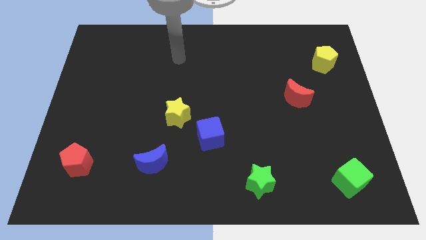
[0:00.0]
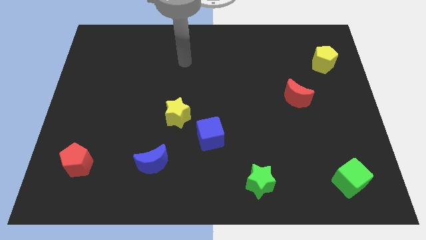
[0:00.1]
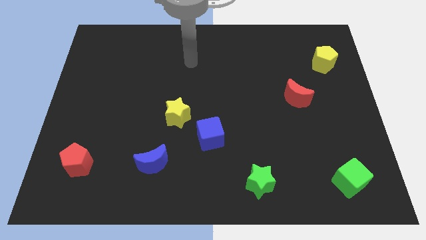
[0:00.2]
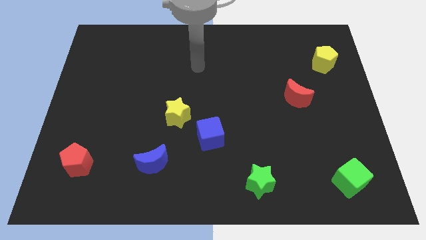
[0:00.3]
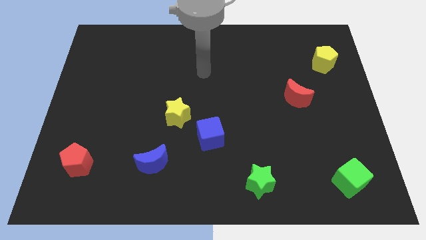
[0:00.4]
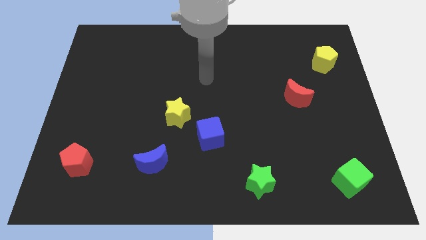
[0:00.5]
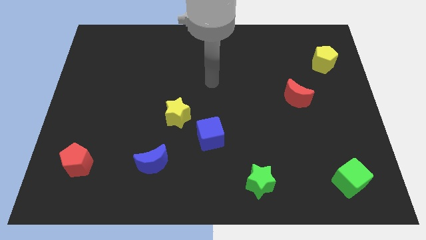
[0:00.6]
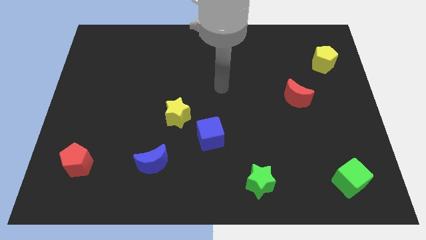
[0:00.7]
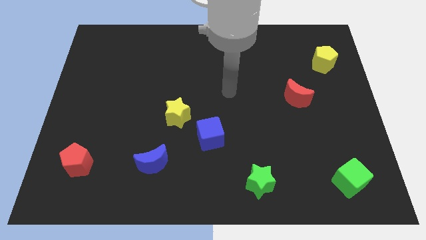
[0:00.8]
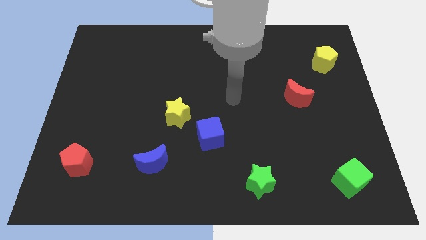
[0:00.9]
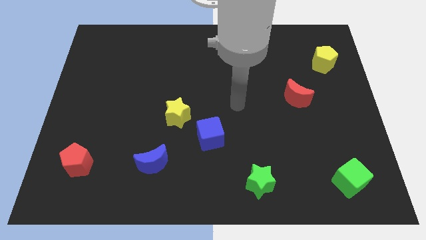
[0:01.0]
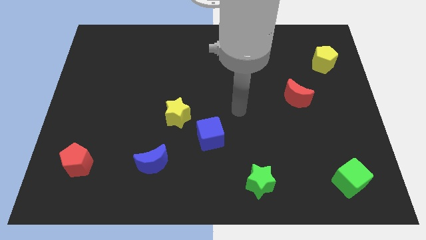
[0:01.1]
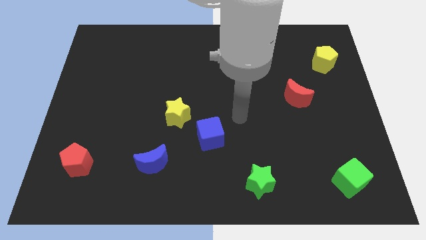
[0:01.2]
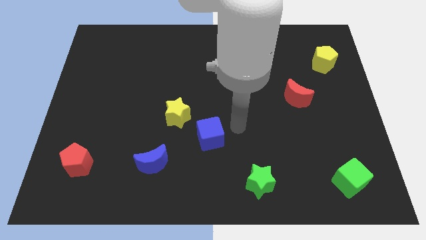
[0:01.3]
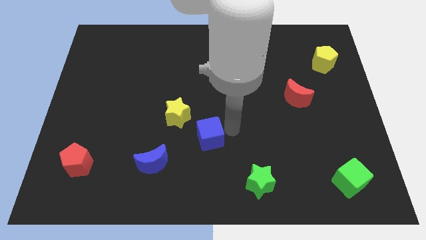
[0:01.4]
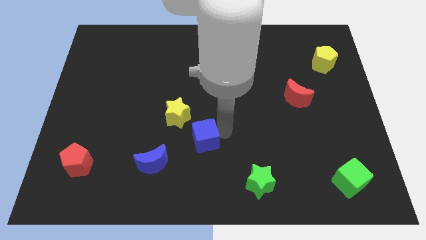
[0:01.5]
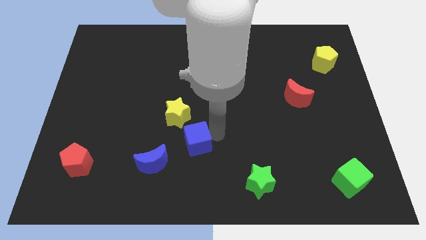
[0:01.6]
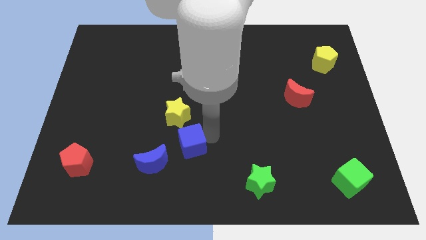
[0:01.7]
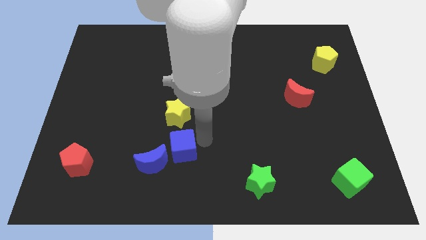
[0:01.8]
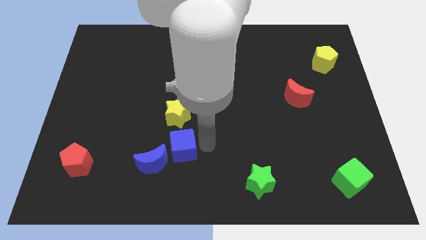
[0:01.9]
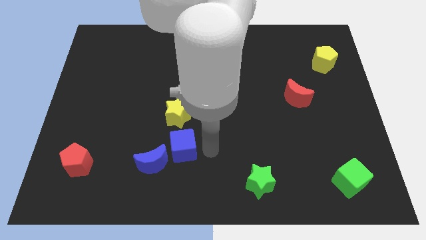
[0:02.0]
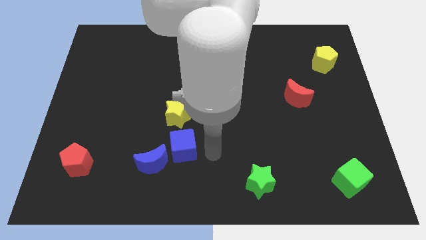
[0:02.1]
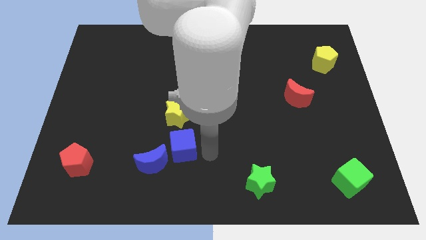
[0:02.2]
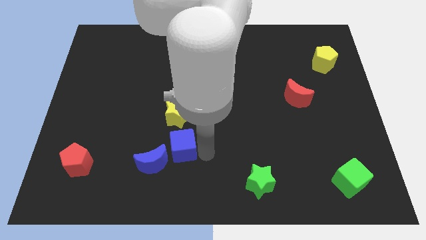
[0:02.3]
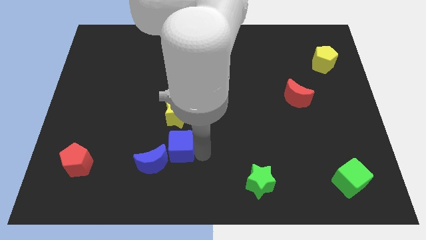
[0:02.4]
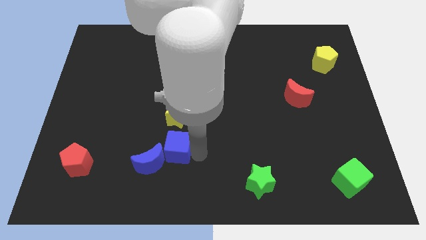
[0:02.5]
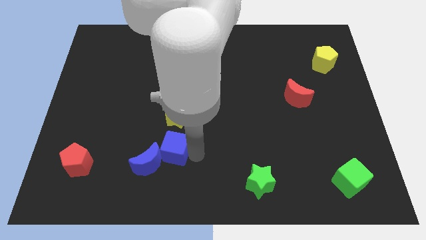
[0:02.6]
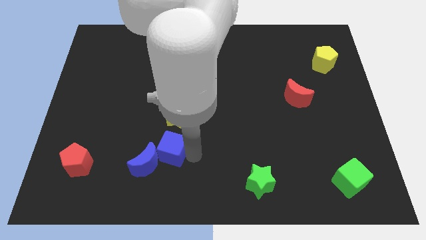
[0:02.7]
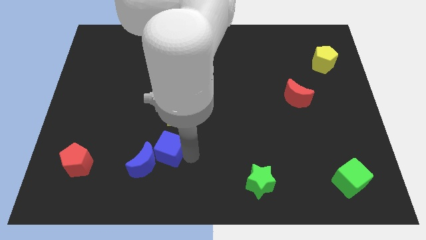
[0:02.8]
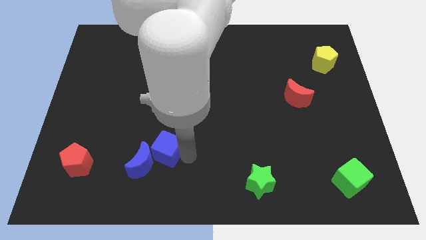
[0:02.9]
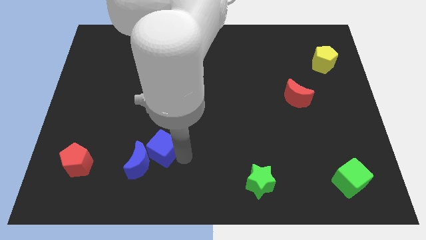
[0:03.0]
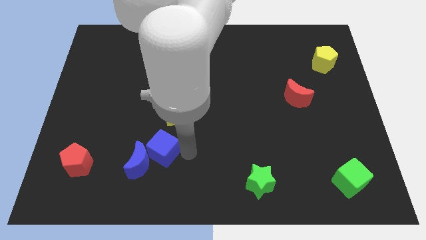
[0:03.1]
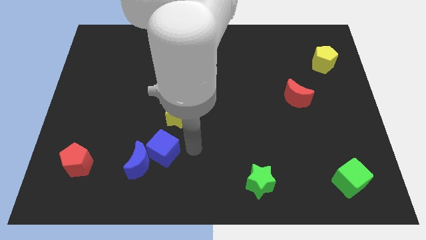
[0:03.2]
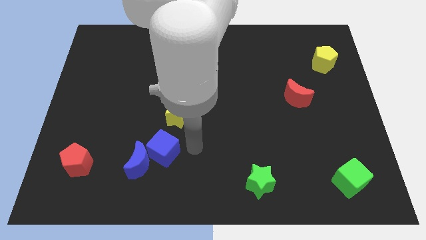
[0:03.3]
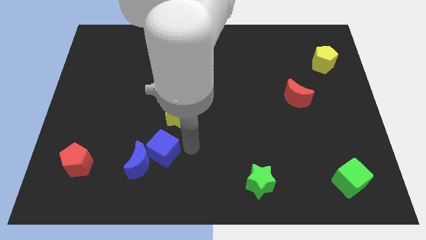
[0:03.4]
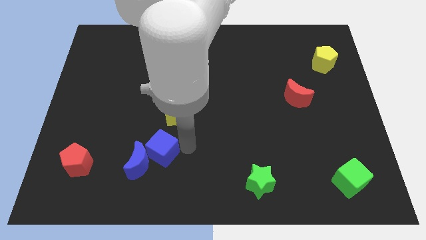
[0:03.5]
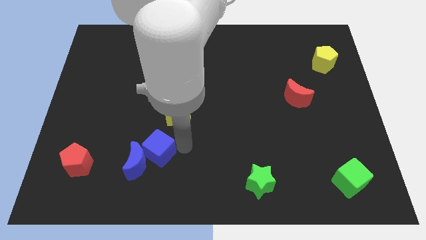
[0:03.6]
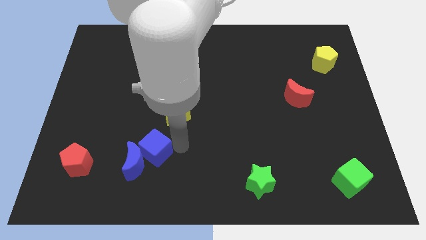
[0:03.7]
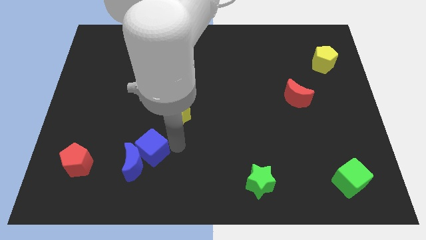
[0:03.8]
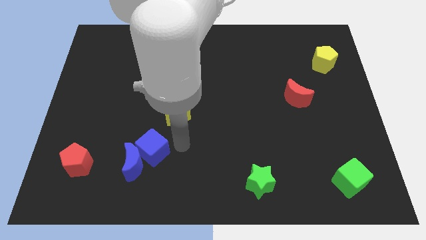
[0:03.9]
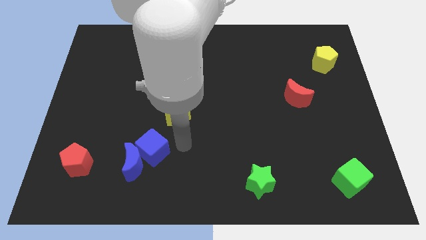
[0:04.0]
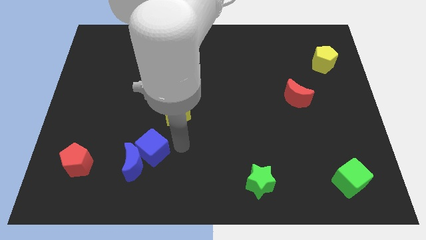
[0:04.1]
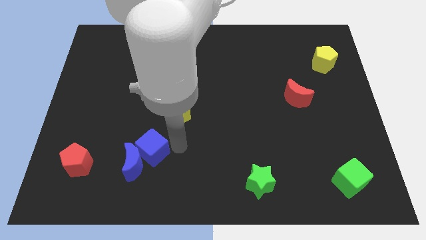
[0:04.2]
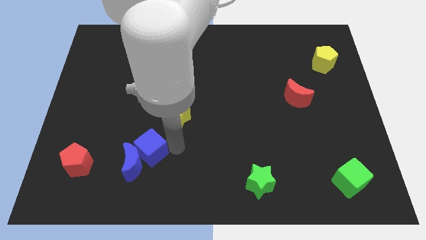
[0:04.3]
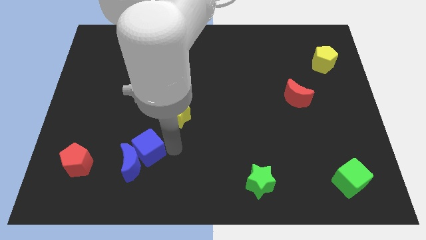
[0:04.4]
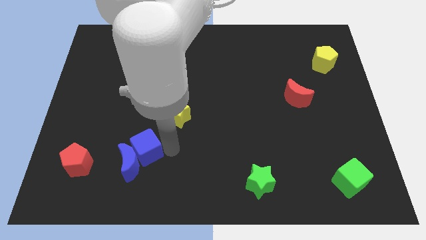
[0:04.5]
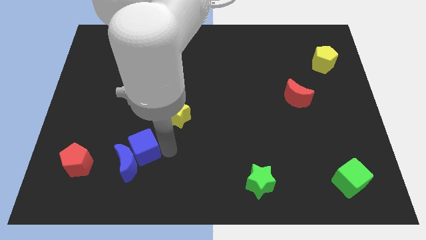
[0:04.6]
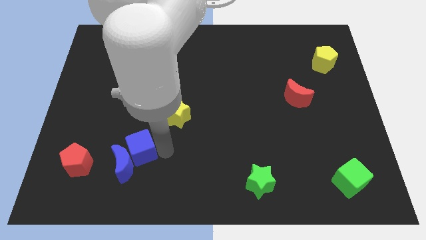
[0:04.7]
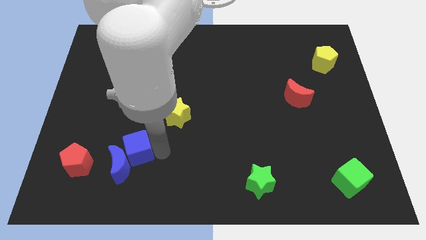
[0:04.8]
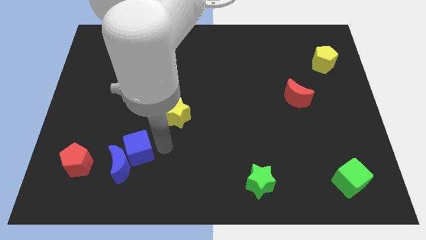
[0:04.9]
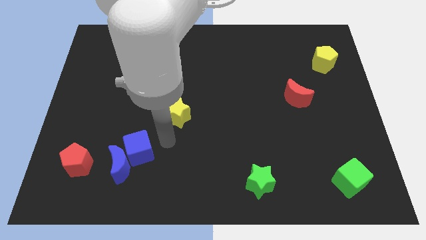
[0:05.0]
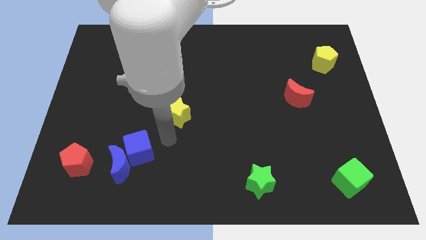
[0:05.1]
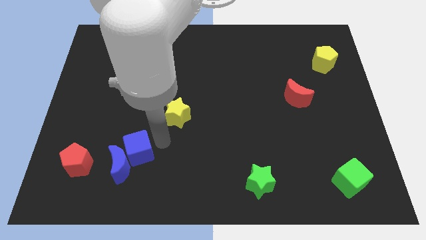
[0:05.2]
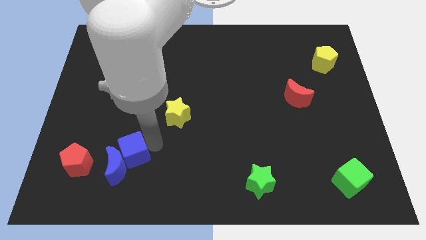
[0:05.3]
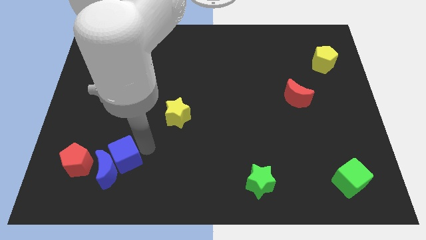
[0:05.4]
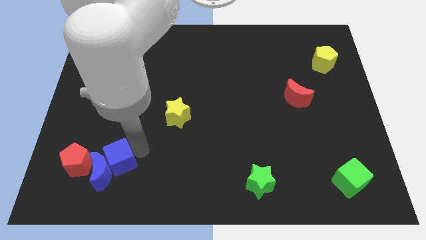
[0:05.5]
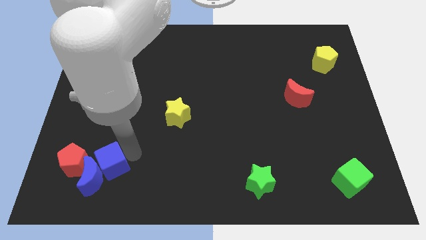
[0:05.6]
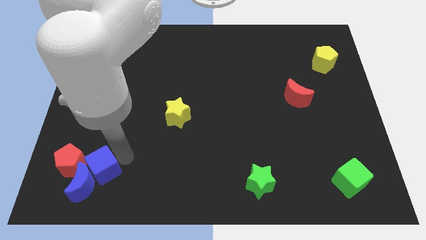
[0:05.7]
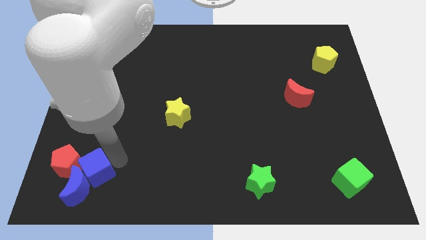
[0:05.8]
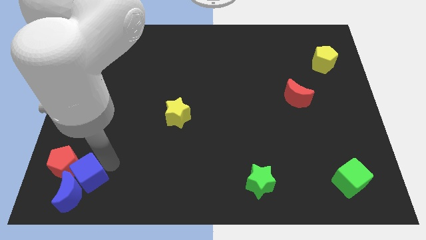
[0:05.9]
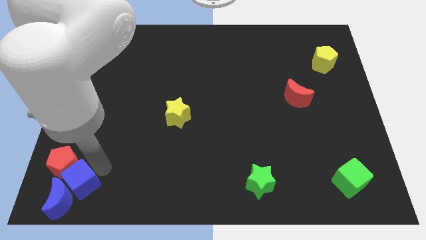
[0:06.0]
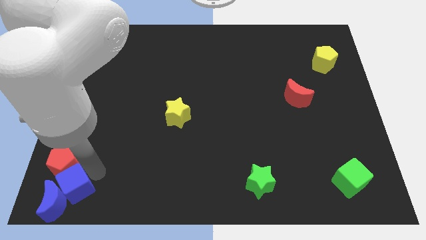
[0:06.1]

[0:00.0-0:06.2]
put the blue cube to the bottom left

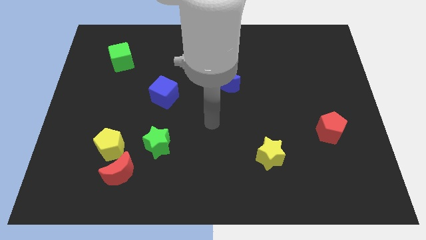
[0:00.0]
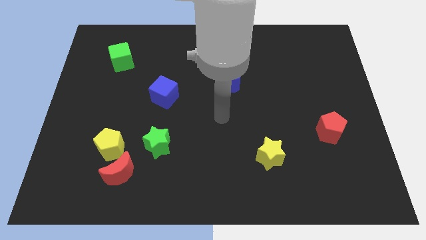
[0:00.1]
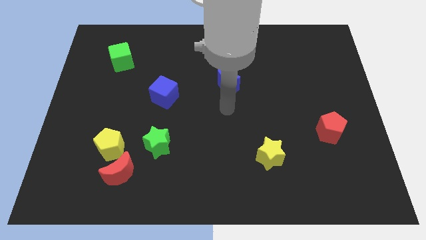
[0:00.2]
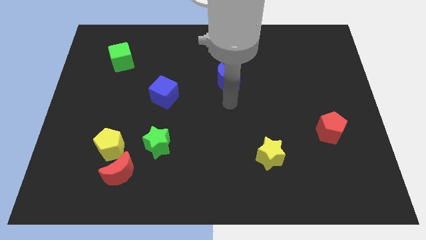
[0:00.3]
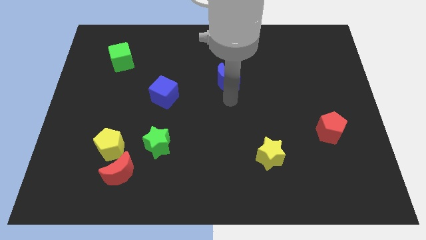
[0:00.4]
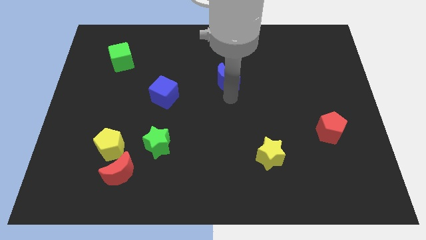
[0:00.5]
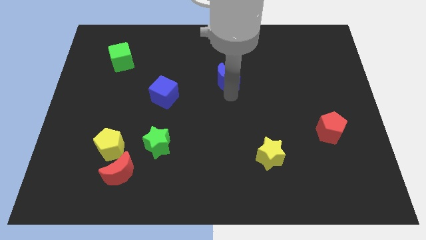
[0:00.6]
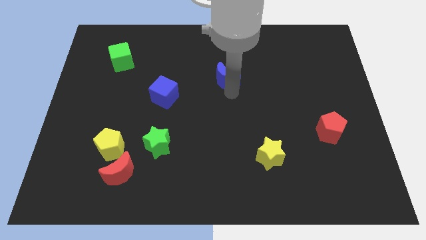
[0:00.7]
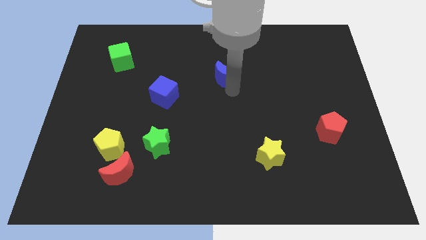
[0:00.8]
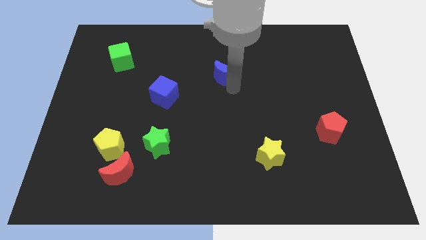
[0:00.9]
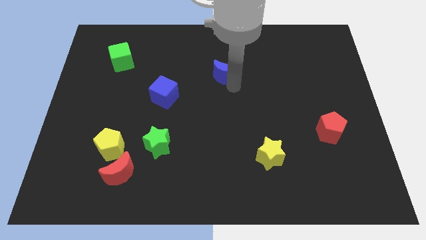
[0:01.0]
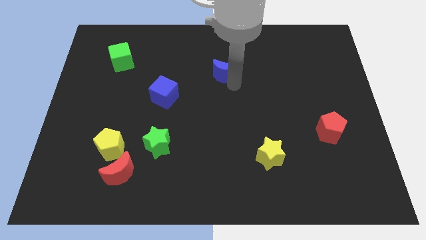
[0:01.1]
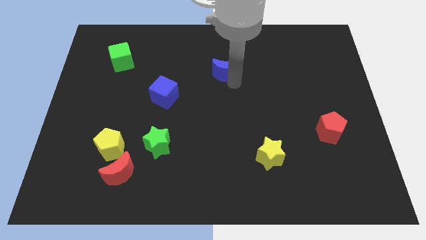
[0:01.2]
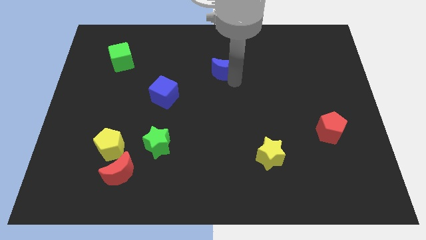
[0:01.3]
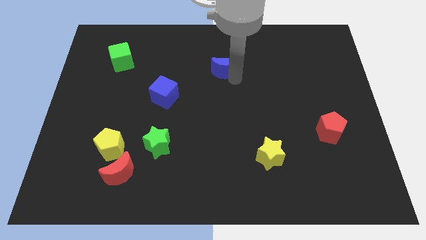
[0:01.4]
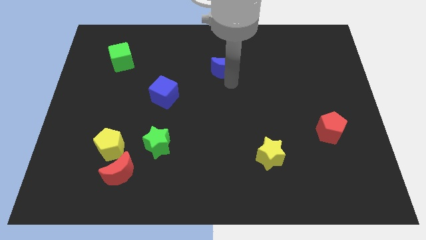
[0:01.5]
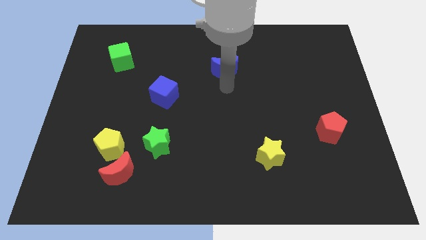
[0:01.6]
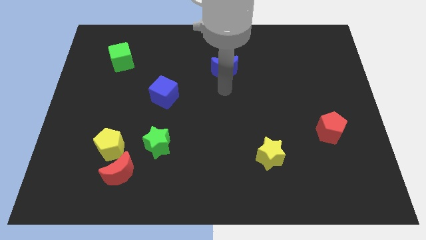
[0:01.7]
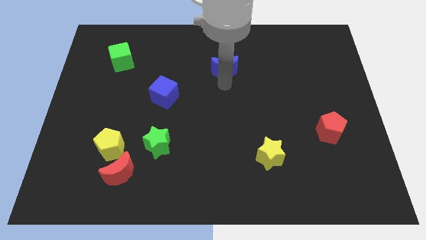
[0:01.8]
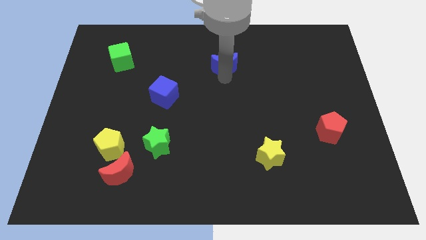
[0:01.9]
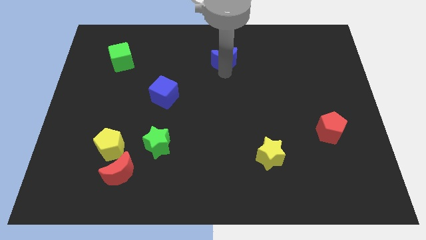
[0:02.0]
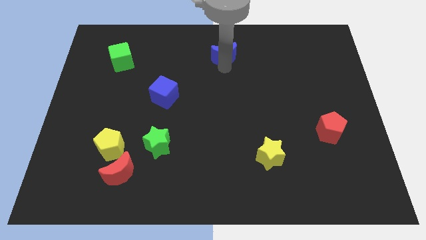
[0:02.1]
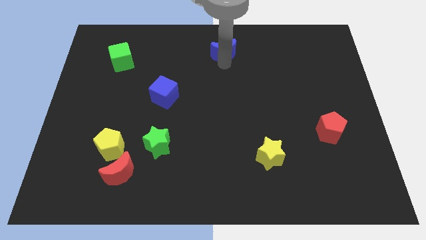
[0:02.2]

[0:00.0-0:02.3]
move the blue moon to the towards your base
